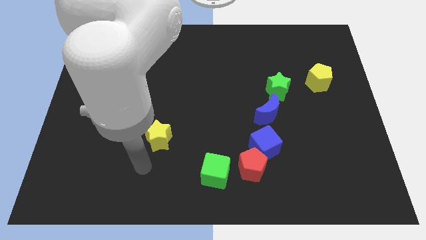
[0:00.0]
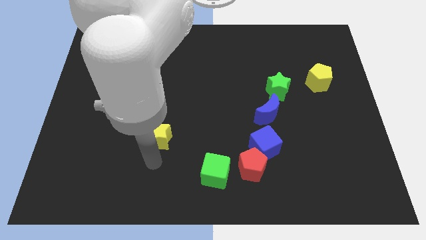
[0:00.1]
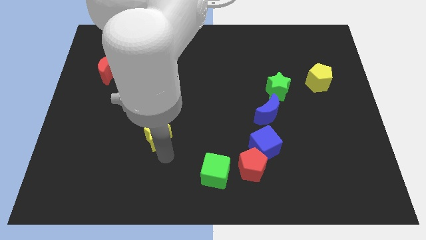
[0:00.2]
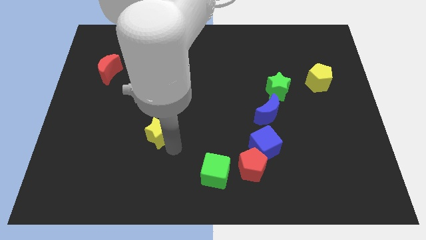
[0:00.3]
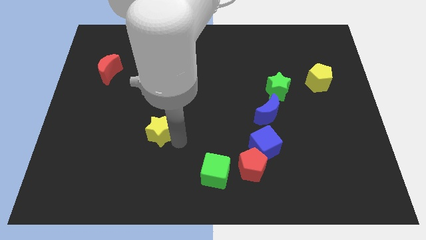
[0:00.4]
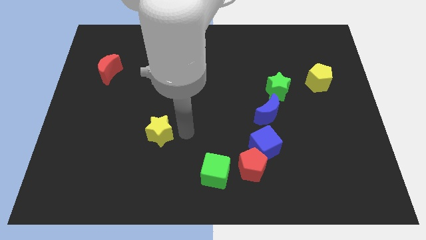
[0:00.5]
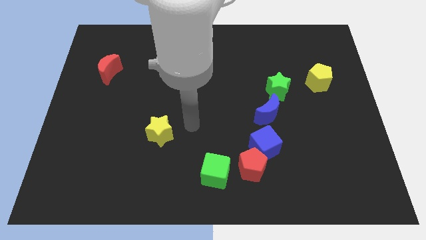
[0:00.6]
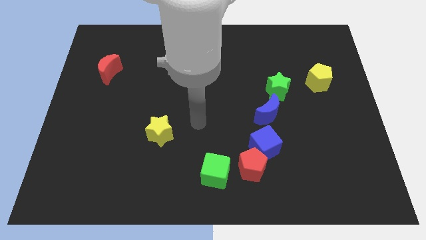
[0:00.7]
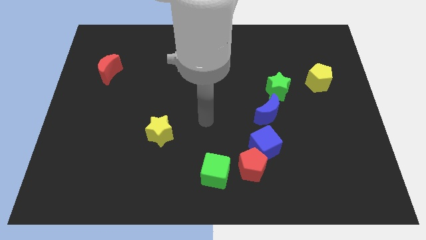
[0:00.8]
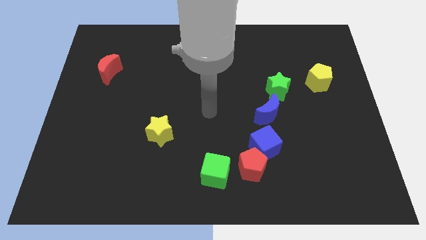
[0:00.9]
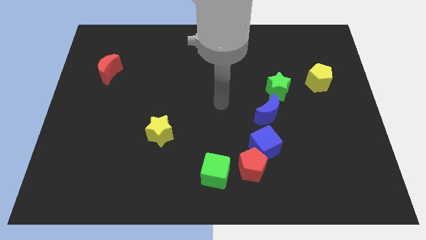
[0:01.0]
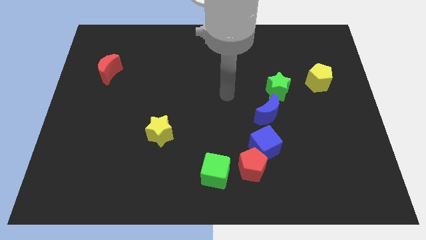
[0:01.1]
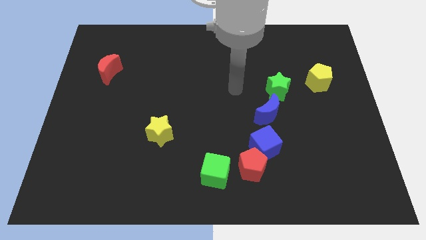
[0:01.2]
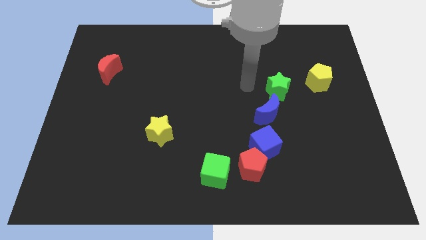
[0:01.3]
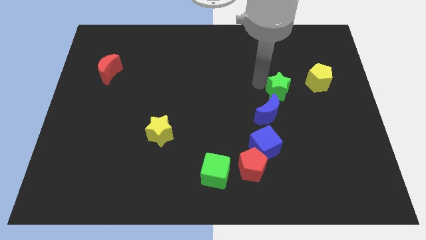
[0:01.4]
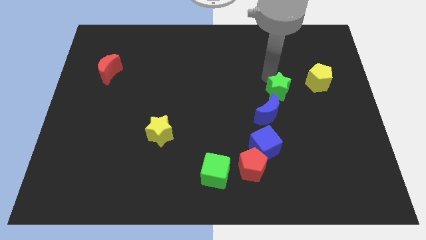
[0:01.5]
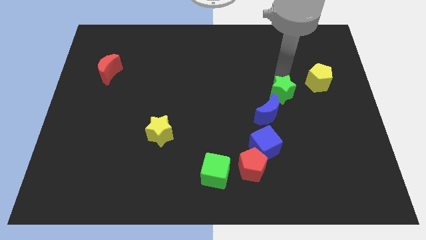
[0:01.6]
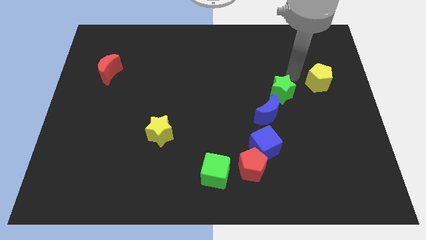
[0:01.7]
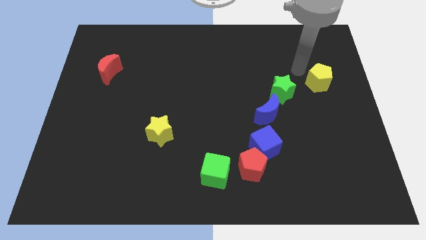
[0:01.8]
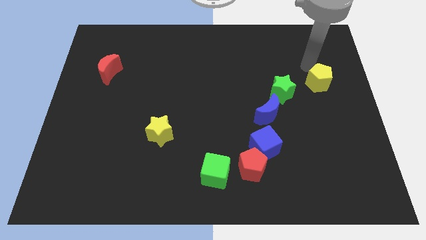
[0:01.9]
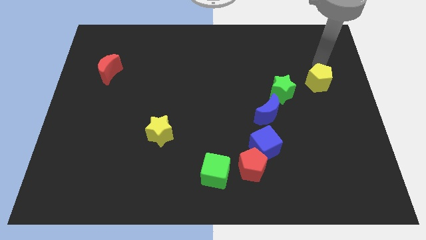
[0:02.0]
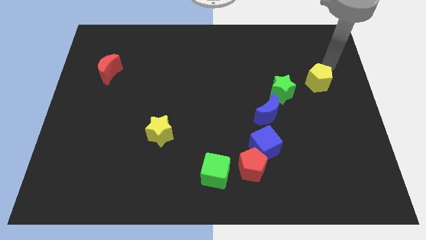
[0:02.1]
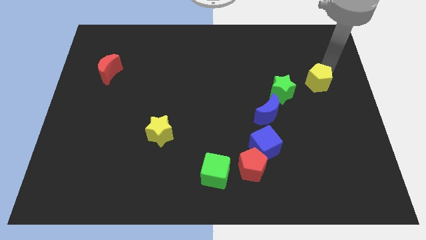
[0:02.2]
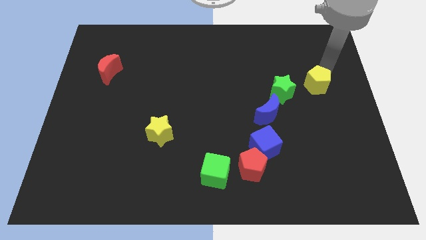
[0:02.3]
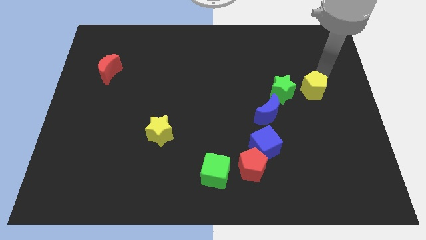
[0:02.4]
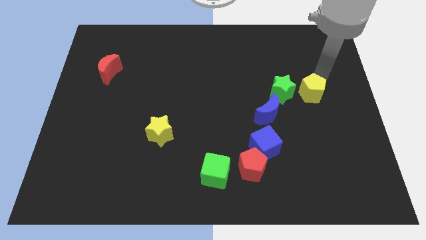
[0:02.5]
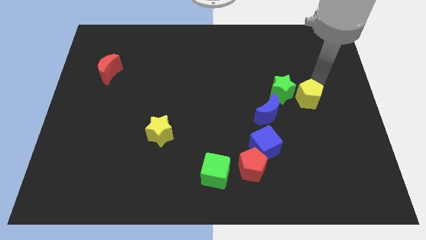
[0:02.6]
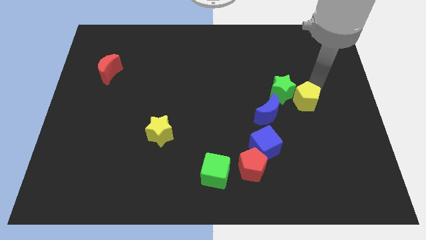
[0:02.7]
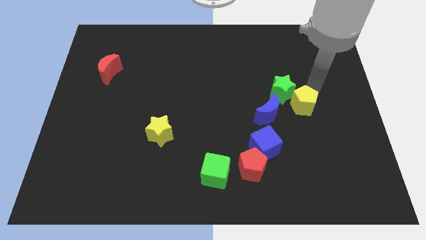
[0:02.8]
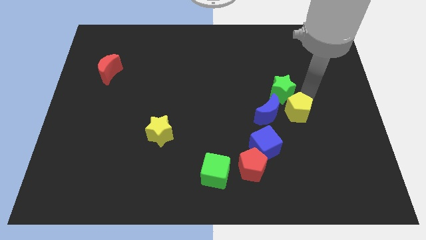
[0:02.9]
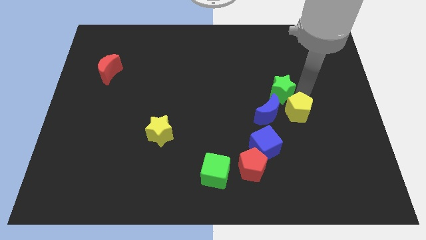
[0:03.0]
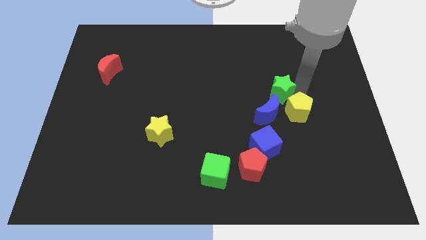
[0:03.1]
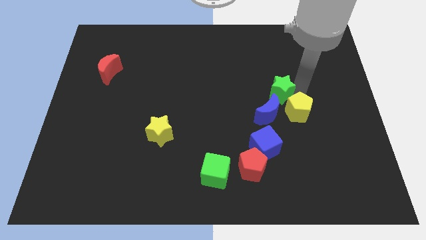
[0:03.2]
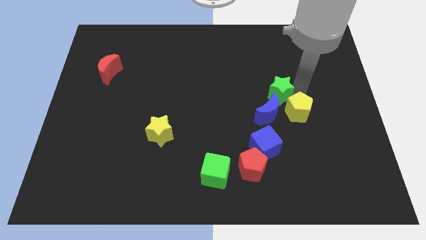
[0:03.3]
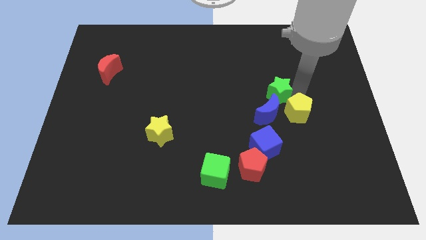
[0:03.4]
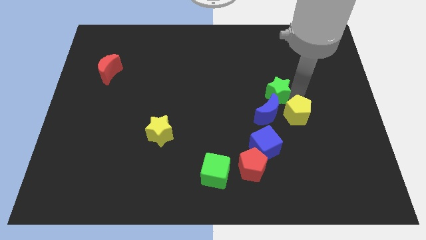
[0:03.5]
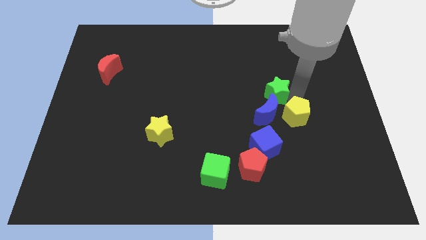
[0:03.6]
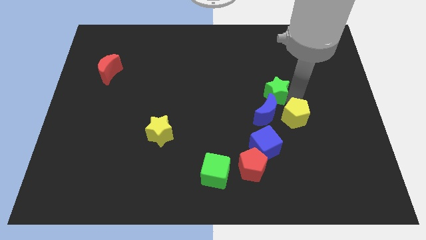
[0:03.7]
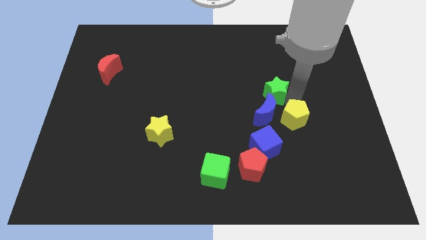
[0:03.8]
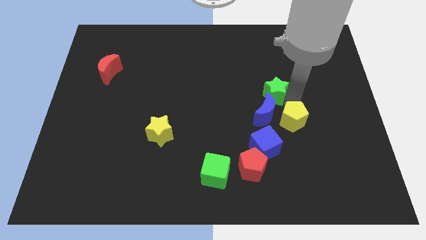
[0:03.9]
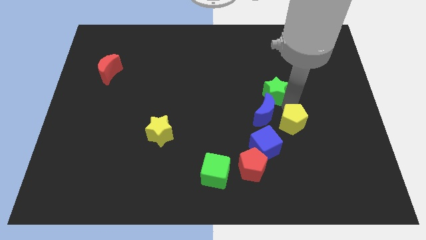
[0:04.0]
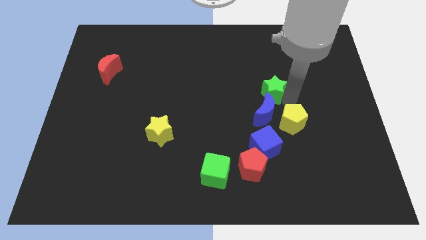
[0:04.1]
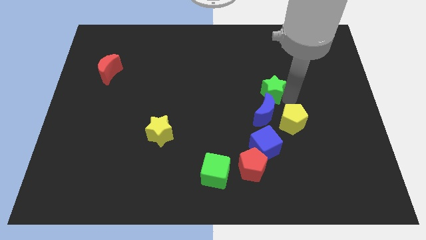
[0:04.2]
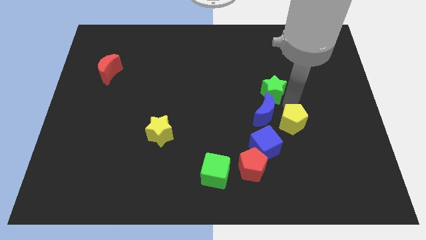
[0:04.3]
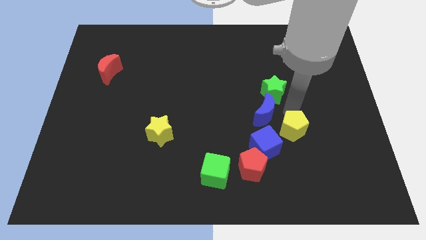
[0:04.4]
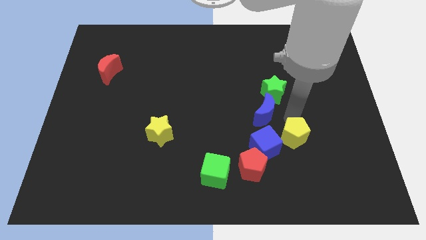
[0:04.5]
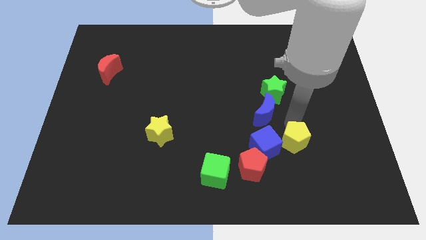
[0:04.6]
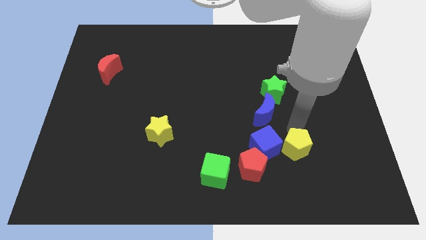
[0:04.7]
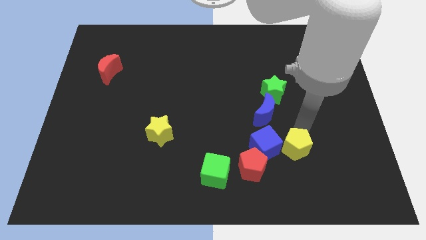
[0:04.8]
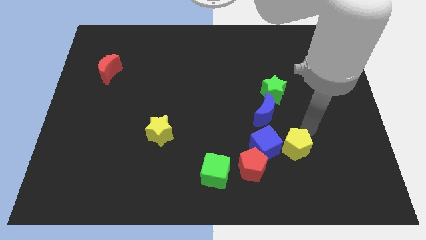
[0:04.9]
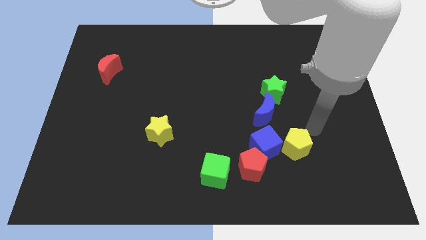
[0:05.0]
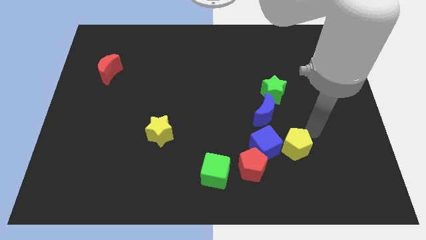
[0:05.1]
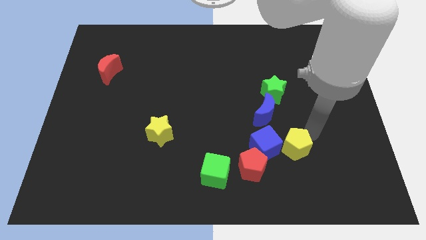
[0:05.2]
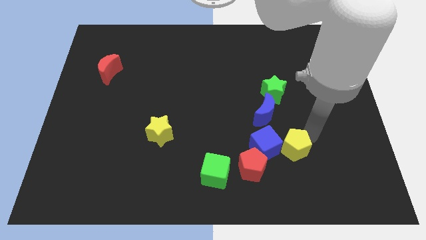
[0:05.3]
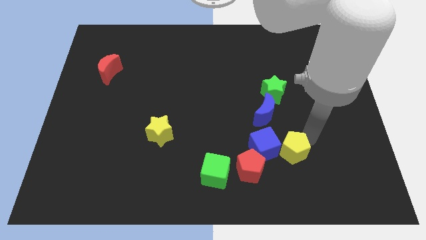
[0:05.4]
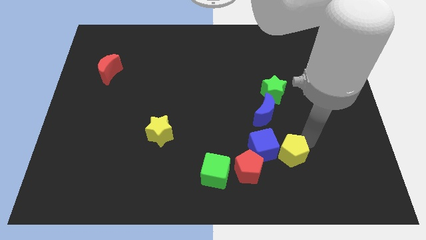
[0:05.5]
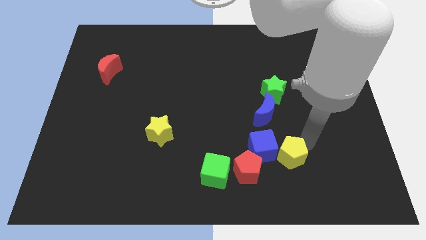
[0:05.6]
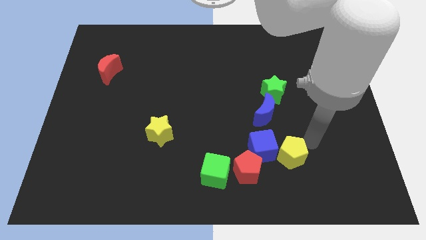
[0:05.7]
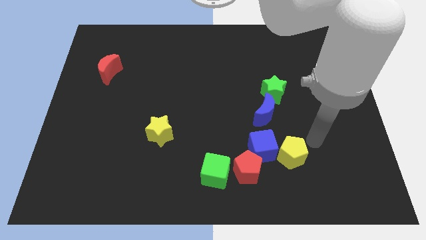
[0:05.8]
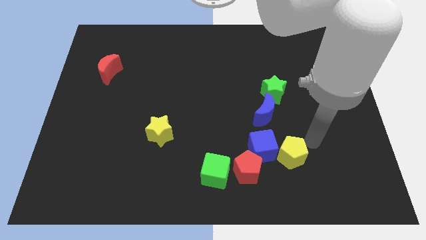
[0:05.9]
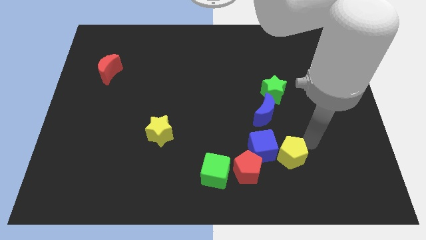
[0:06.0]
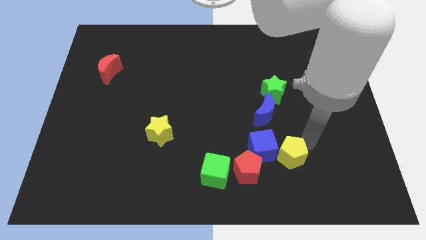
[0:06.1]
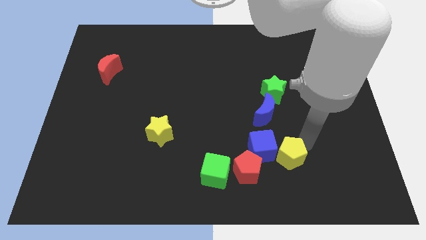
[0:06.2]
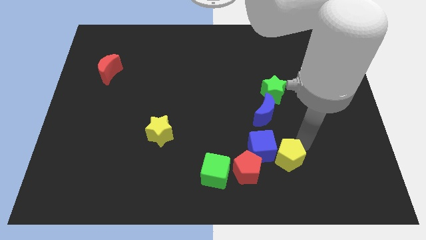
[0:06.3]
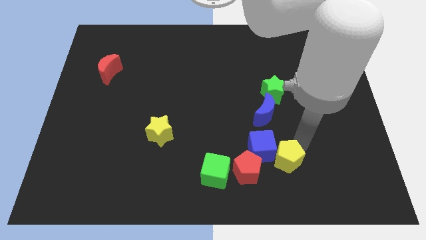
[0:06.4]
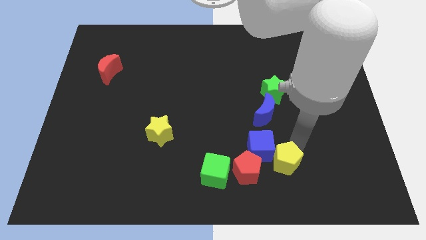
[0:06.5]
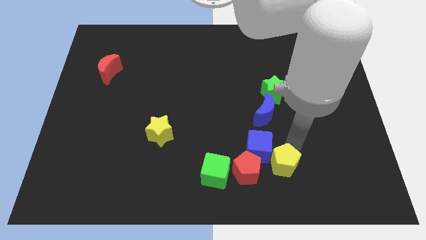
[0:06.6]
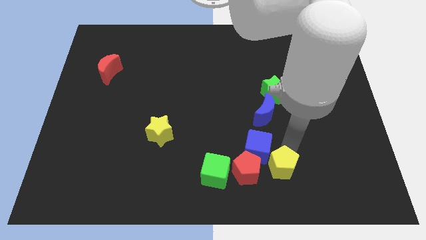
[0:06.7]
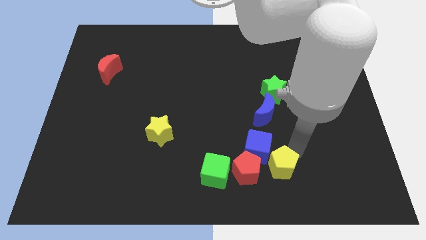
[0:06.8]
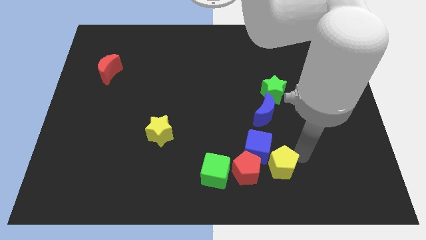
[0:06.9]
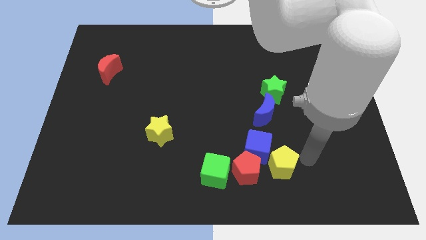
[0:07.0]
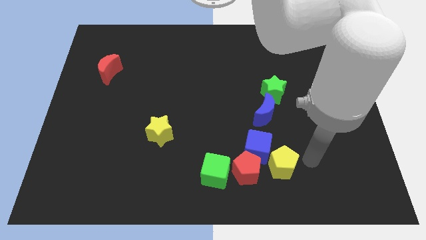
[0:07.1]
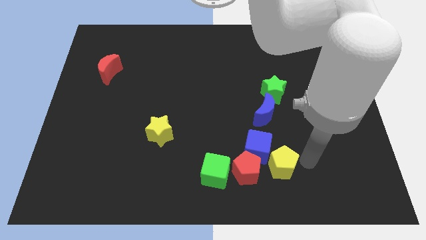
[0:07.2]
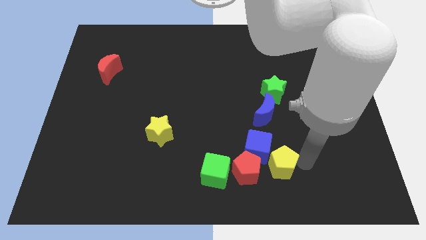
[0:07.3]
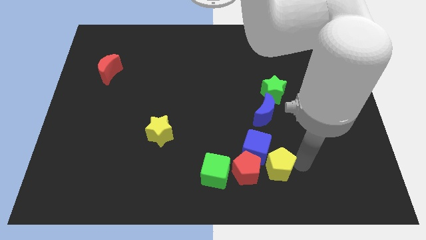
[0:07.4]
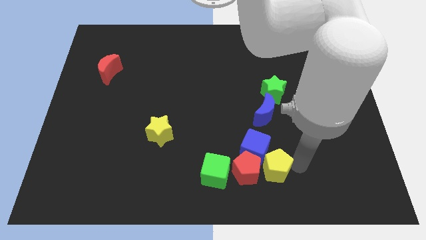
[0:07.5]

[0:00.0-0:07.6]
move the yellow pentagon to the red pentagon
